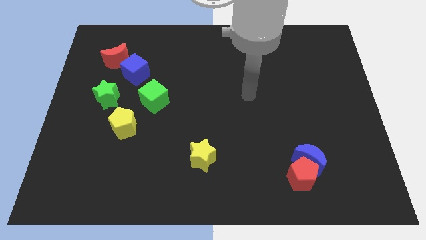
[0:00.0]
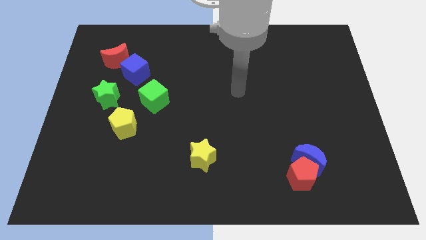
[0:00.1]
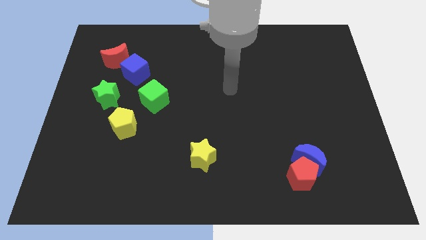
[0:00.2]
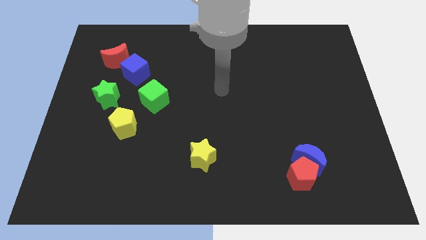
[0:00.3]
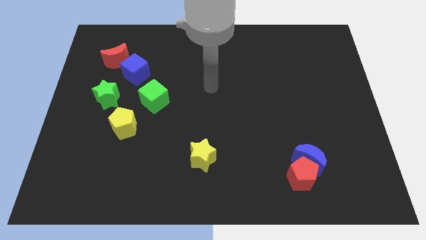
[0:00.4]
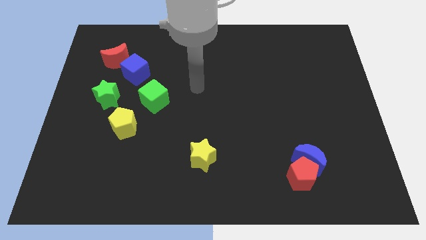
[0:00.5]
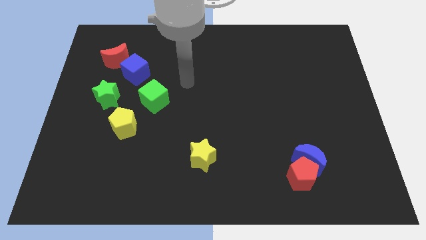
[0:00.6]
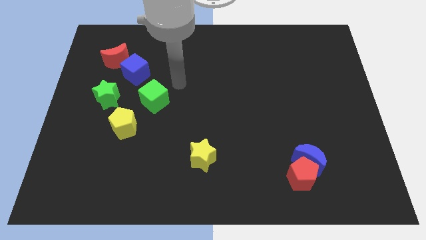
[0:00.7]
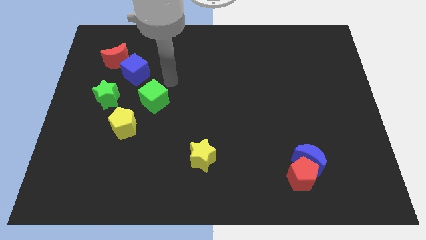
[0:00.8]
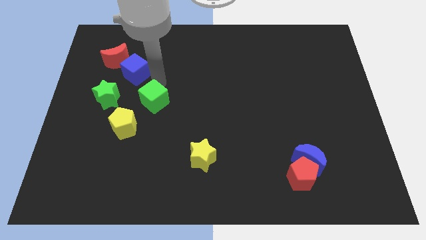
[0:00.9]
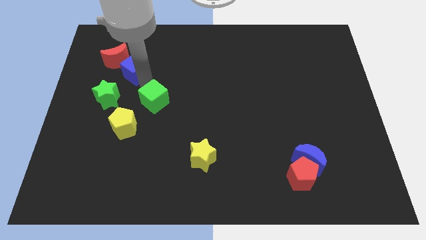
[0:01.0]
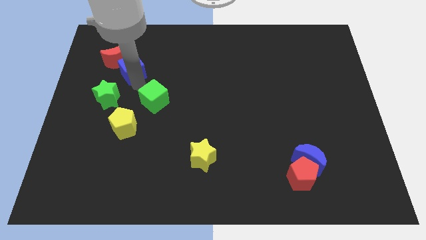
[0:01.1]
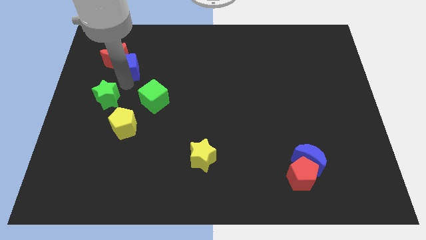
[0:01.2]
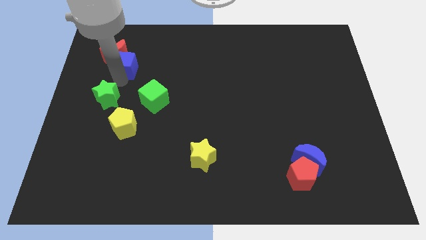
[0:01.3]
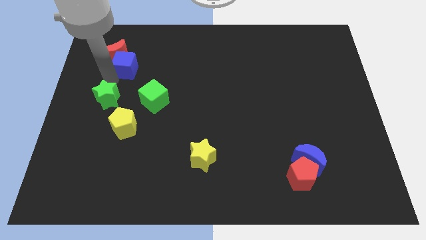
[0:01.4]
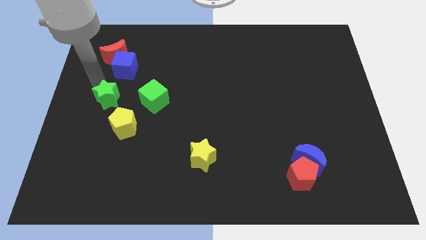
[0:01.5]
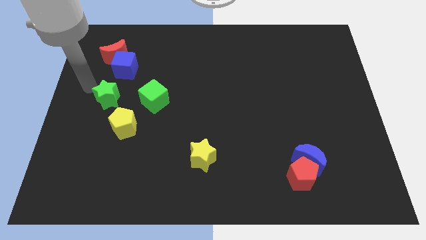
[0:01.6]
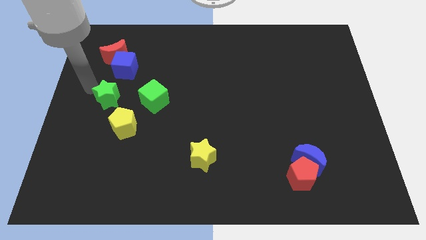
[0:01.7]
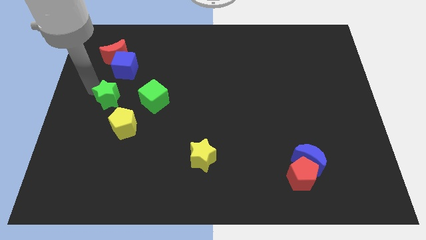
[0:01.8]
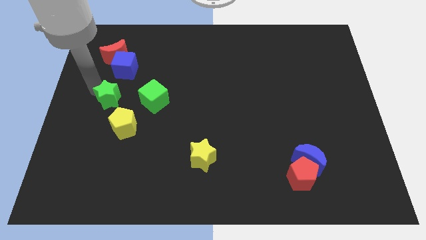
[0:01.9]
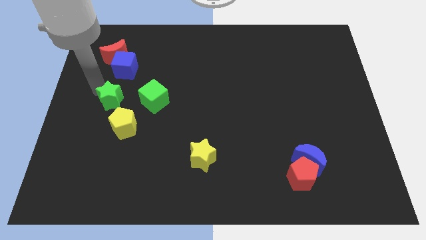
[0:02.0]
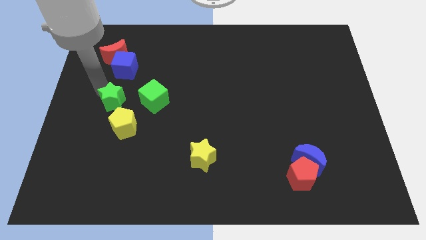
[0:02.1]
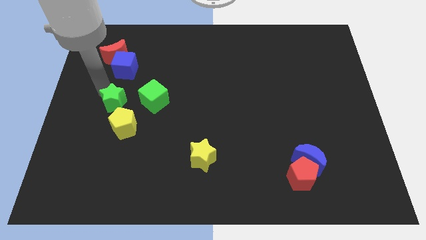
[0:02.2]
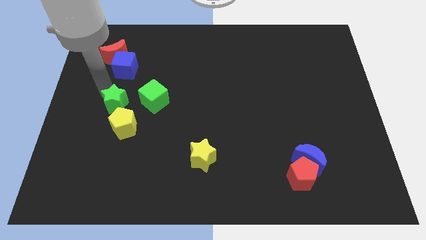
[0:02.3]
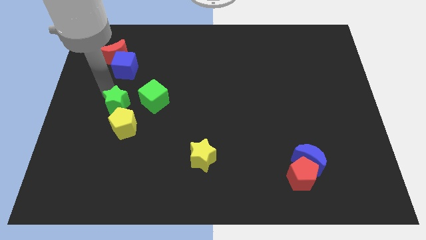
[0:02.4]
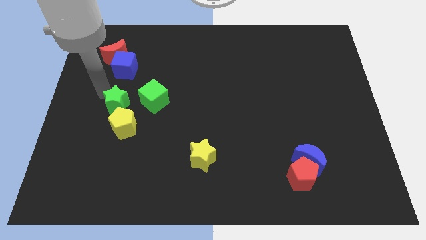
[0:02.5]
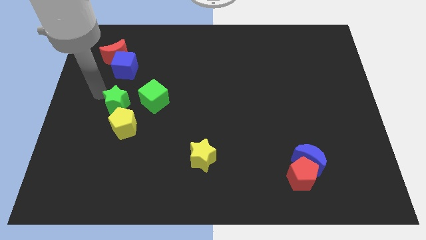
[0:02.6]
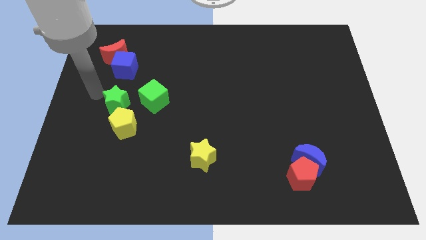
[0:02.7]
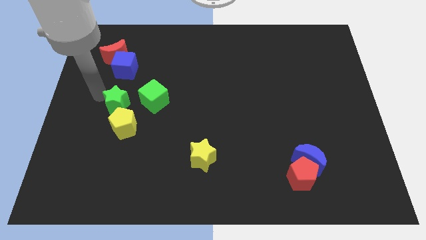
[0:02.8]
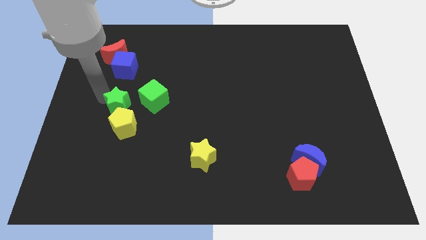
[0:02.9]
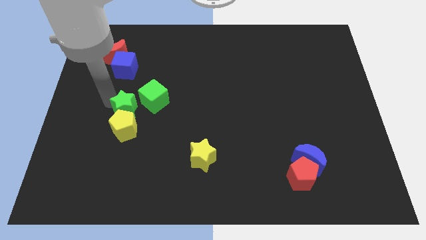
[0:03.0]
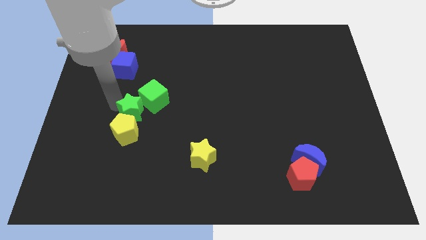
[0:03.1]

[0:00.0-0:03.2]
push the green star slightly down and to the right

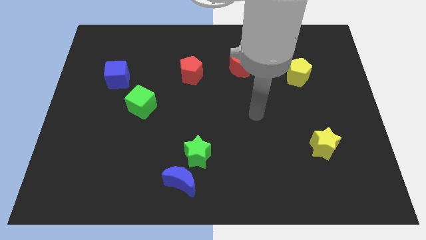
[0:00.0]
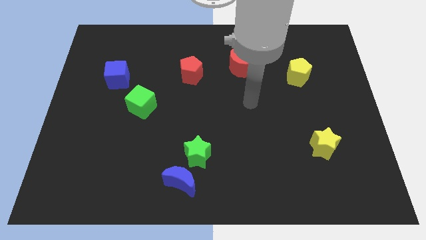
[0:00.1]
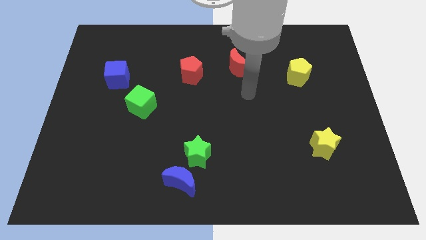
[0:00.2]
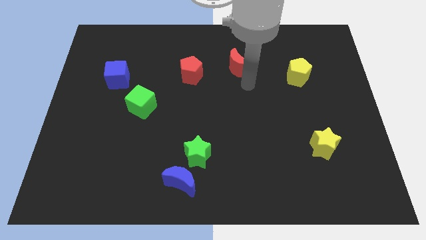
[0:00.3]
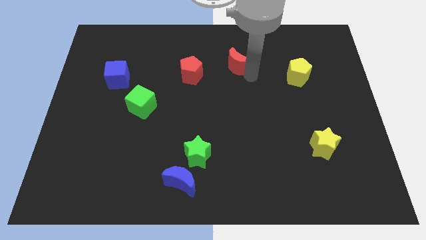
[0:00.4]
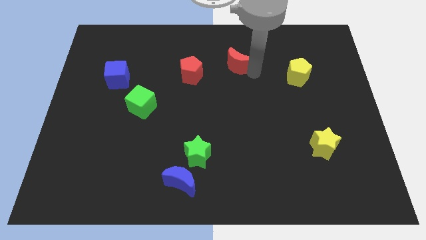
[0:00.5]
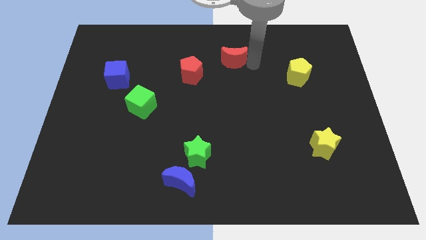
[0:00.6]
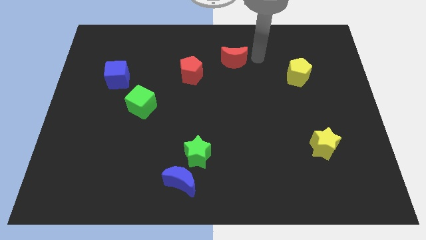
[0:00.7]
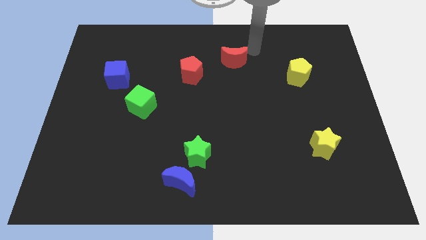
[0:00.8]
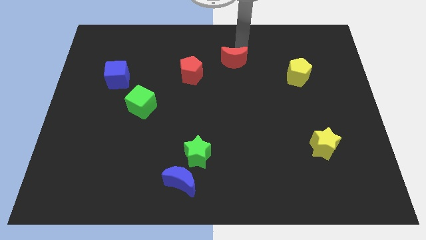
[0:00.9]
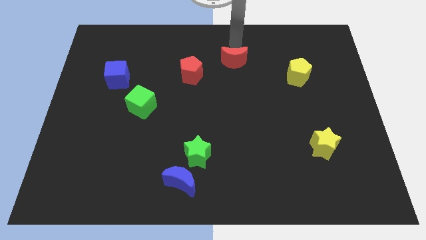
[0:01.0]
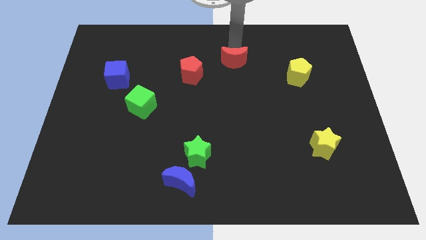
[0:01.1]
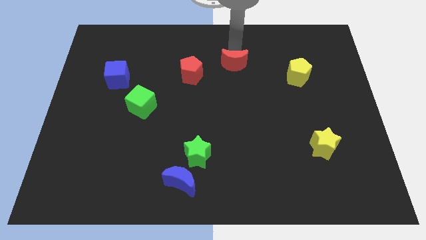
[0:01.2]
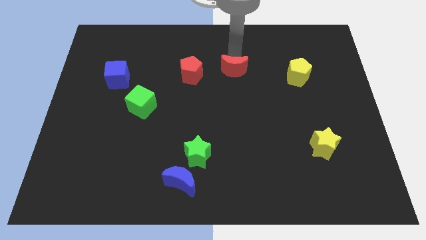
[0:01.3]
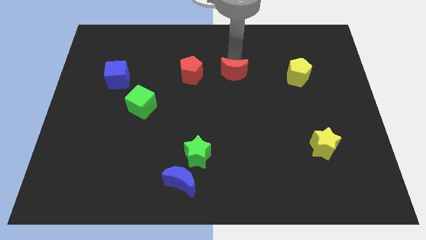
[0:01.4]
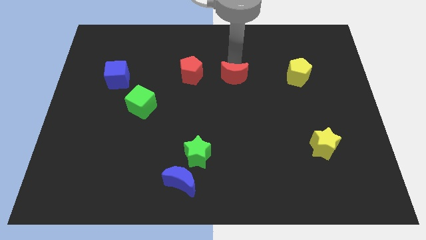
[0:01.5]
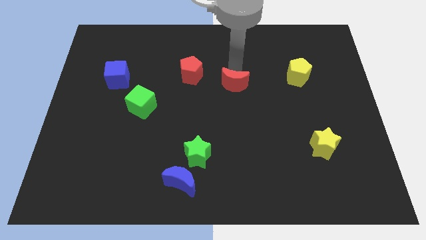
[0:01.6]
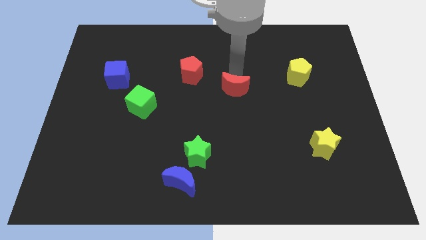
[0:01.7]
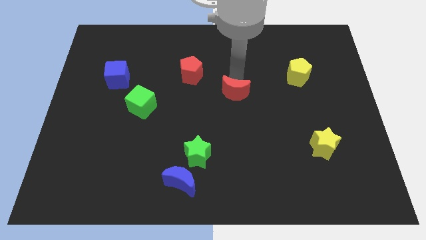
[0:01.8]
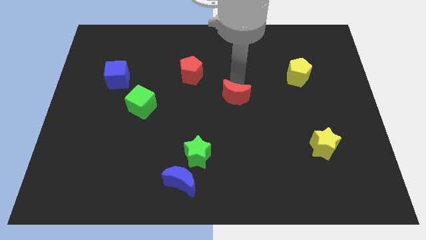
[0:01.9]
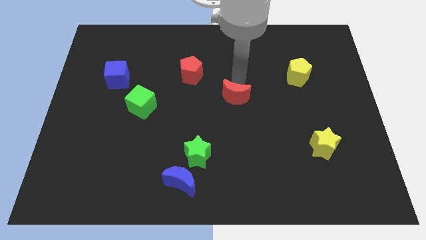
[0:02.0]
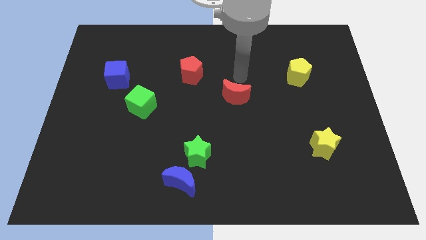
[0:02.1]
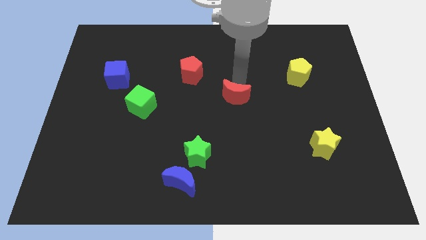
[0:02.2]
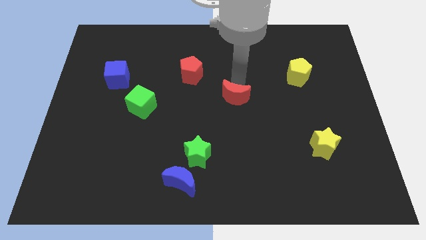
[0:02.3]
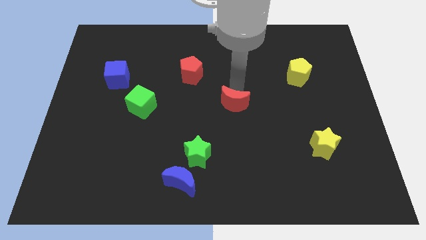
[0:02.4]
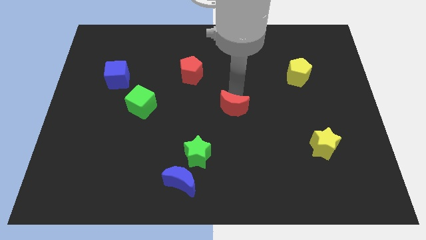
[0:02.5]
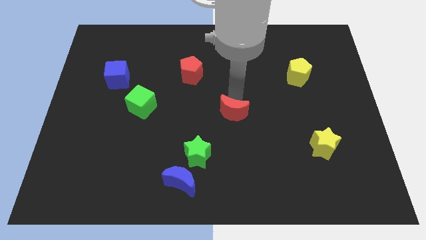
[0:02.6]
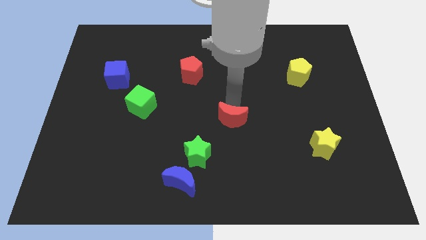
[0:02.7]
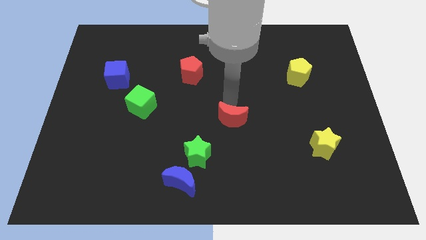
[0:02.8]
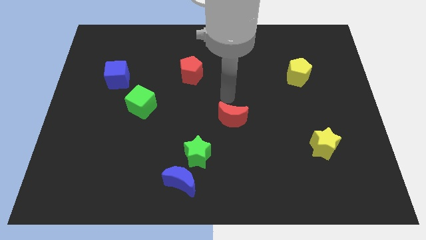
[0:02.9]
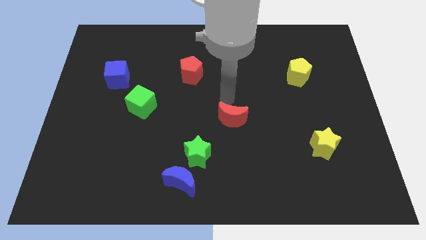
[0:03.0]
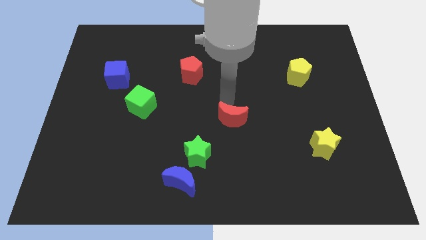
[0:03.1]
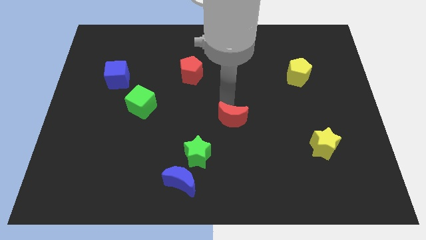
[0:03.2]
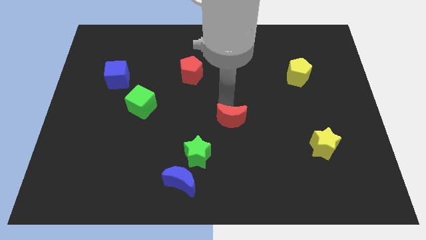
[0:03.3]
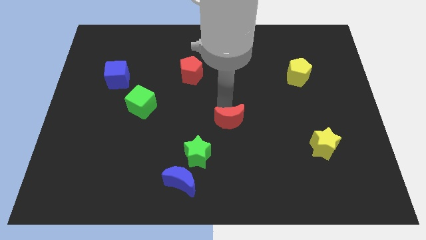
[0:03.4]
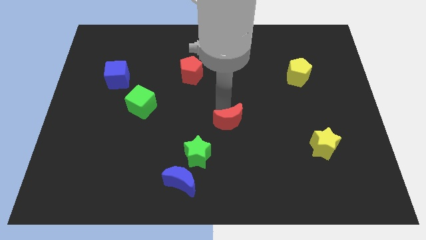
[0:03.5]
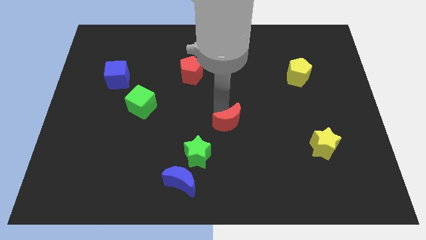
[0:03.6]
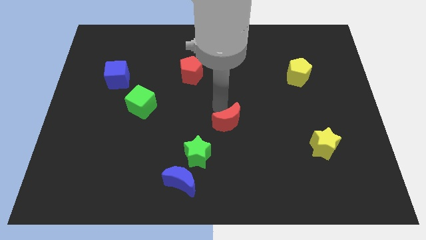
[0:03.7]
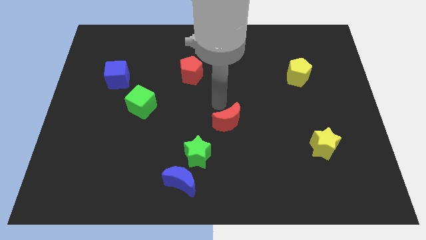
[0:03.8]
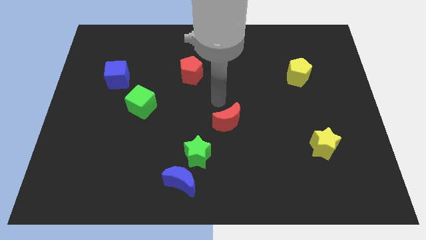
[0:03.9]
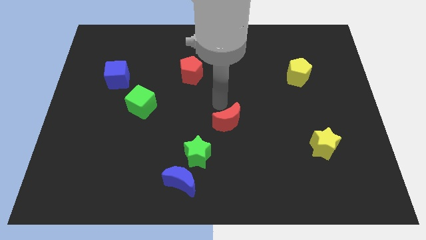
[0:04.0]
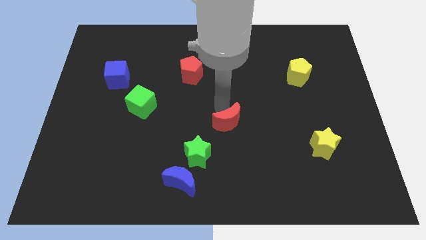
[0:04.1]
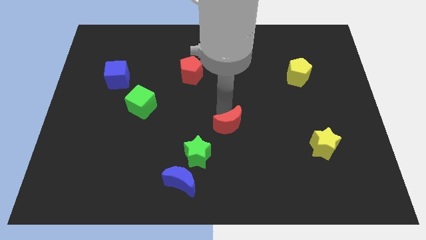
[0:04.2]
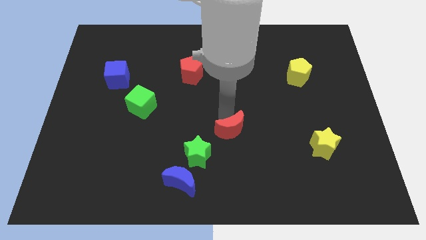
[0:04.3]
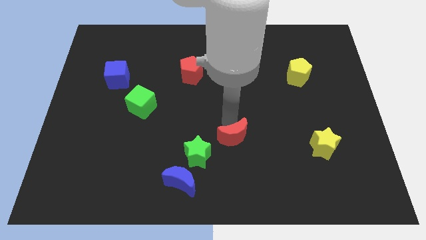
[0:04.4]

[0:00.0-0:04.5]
move the red moon down
